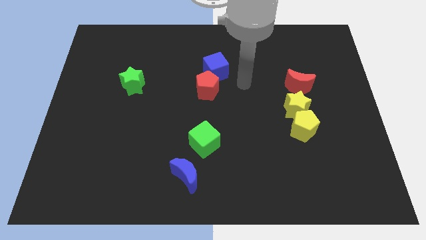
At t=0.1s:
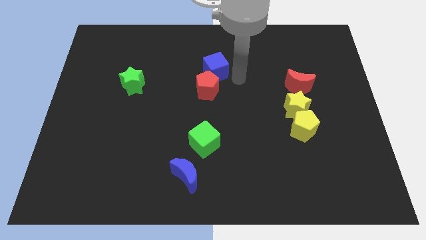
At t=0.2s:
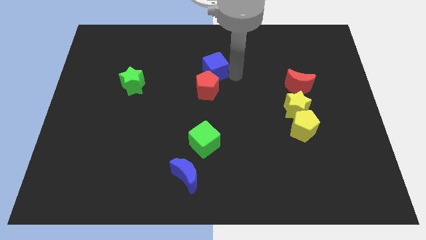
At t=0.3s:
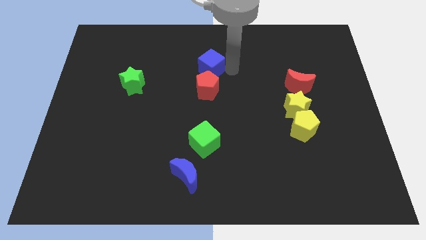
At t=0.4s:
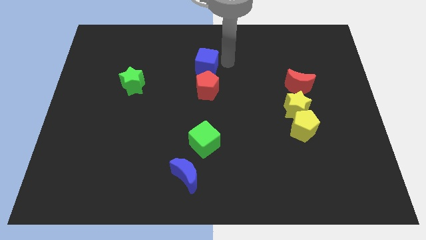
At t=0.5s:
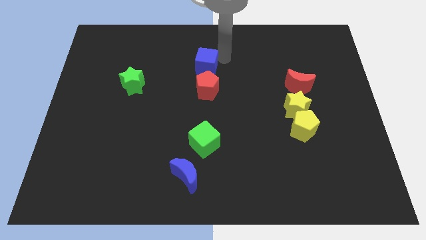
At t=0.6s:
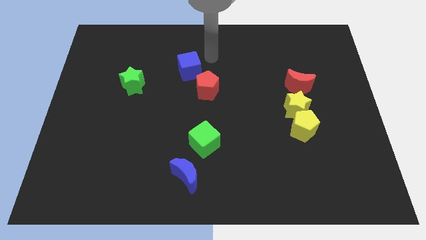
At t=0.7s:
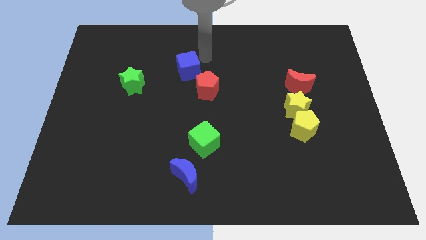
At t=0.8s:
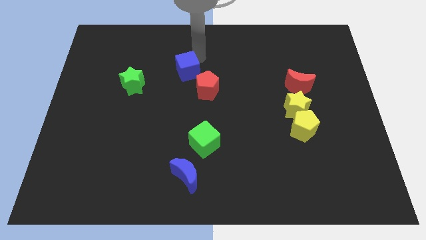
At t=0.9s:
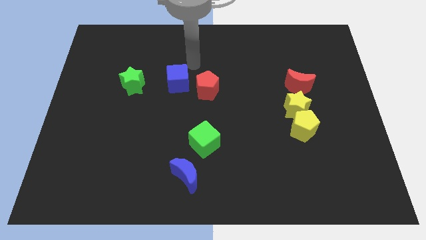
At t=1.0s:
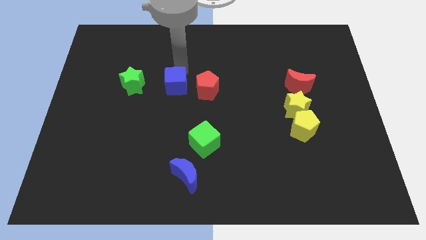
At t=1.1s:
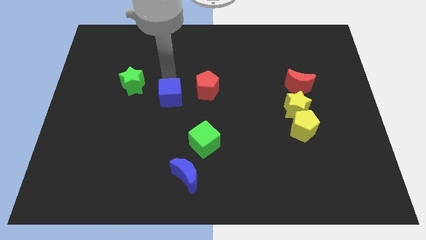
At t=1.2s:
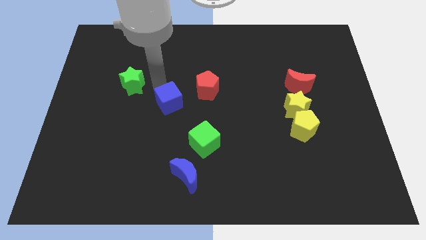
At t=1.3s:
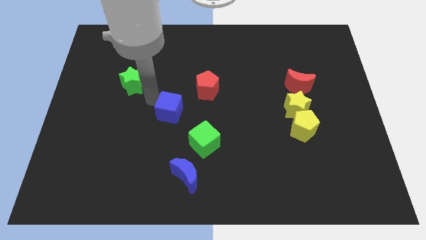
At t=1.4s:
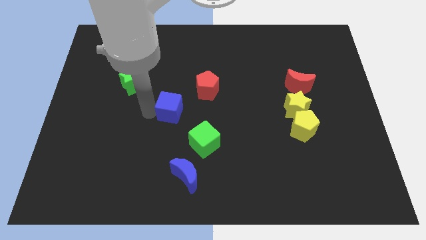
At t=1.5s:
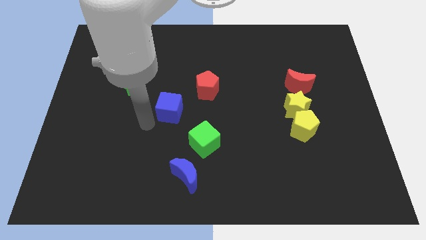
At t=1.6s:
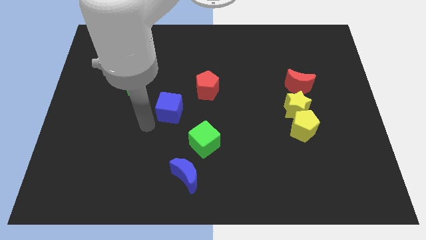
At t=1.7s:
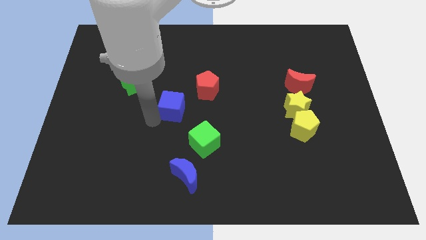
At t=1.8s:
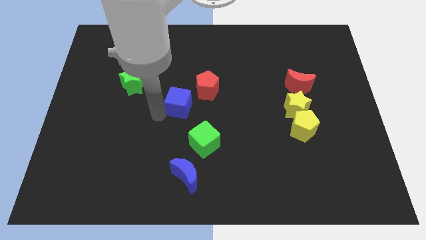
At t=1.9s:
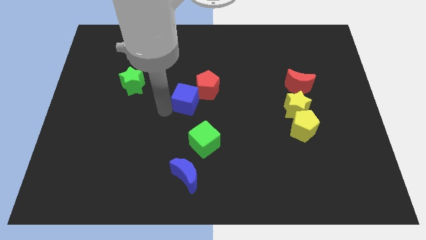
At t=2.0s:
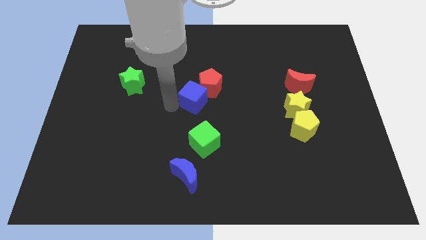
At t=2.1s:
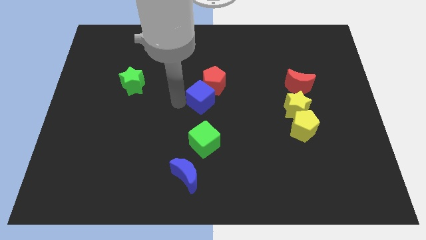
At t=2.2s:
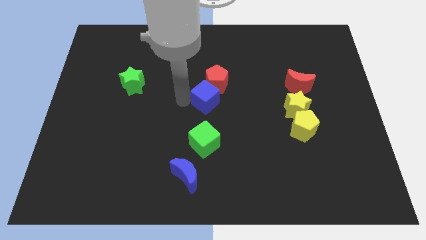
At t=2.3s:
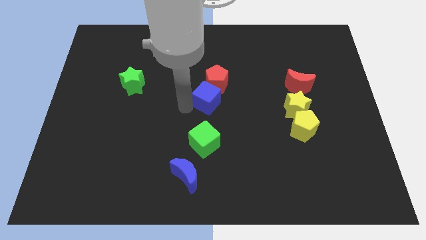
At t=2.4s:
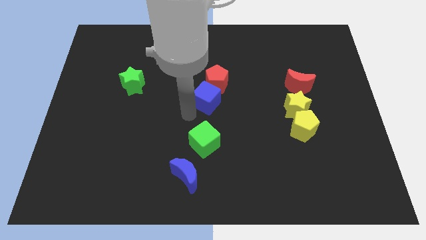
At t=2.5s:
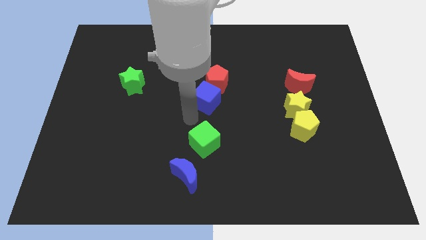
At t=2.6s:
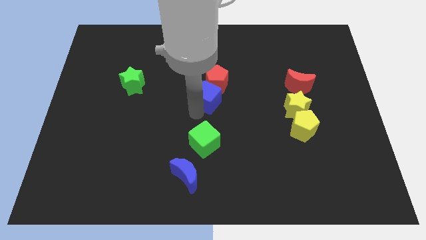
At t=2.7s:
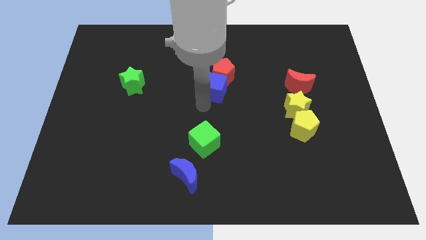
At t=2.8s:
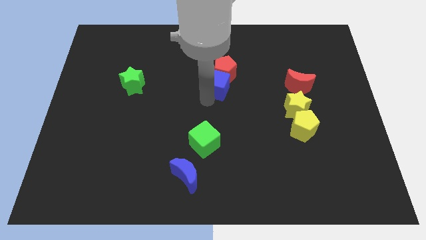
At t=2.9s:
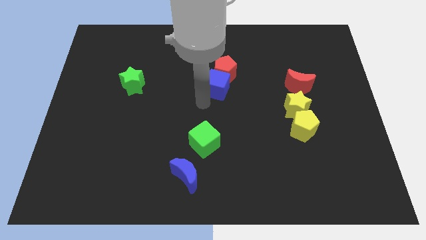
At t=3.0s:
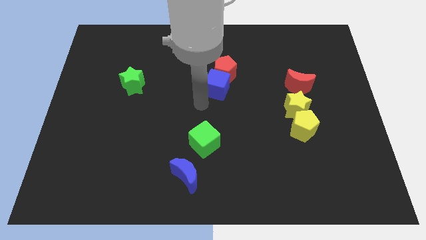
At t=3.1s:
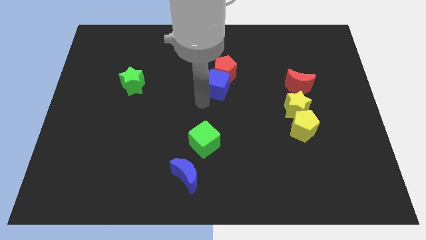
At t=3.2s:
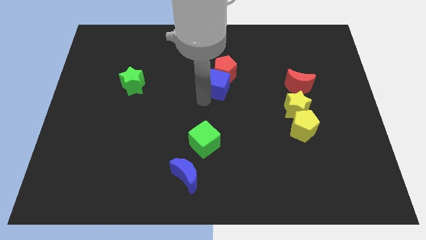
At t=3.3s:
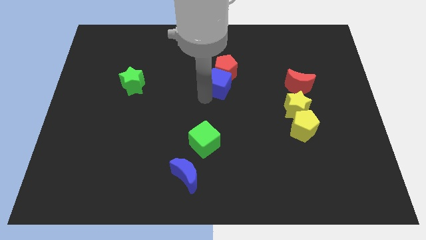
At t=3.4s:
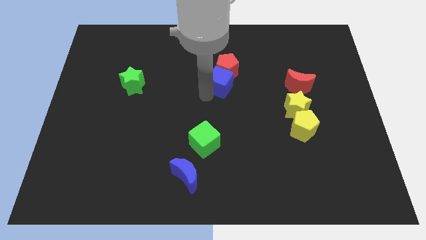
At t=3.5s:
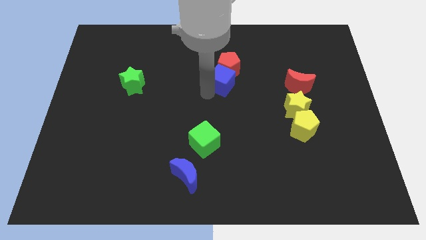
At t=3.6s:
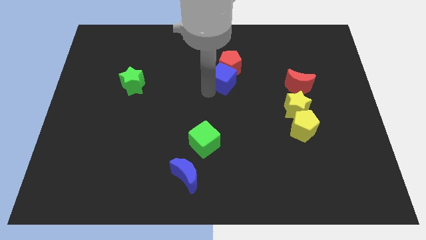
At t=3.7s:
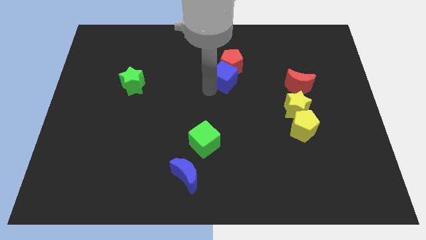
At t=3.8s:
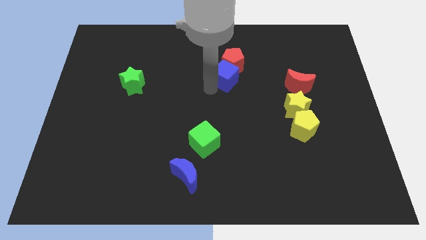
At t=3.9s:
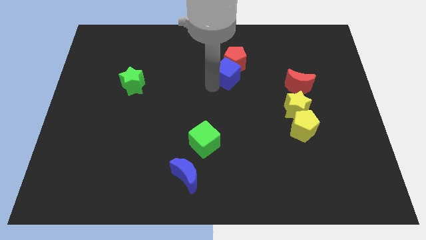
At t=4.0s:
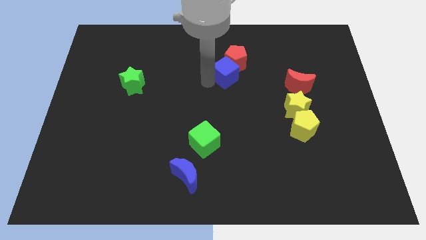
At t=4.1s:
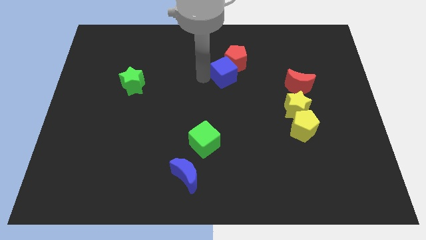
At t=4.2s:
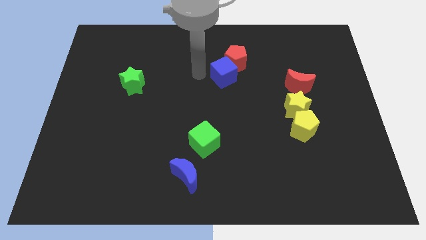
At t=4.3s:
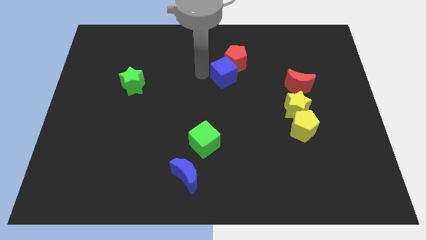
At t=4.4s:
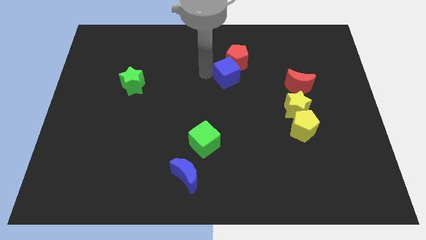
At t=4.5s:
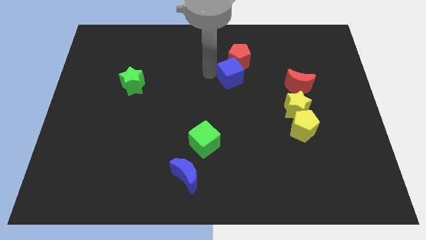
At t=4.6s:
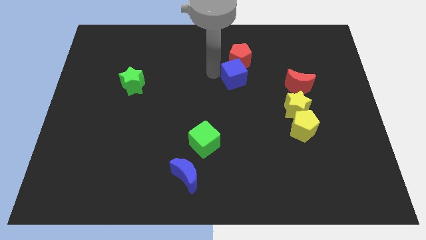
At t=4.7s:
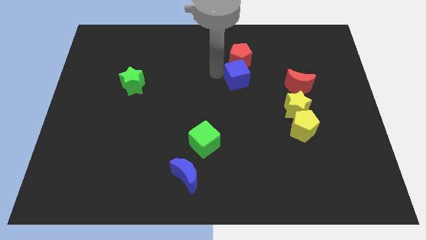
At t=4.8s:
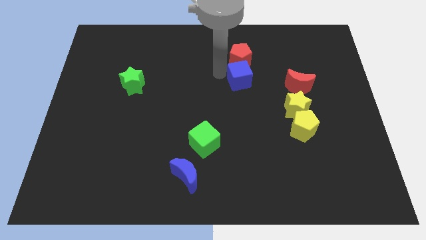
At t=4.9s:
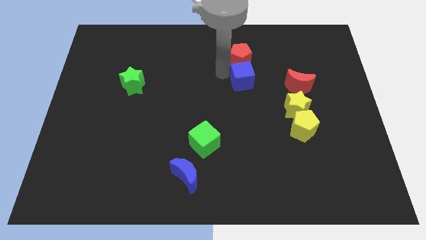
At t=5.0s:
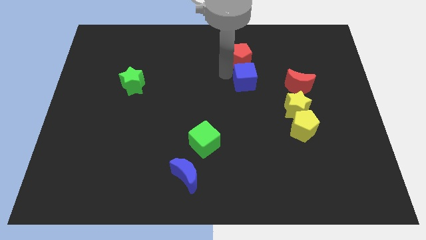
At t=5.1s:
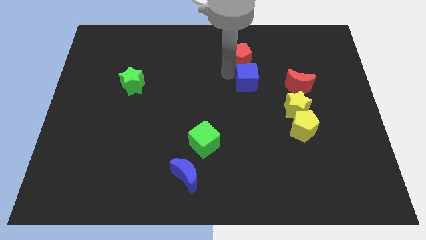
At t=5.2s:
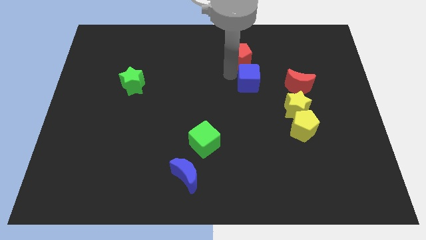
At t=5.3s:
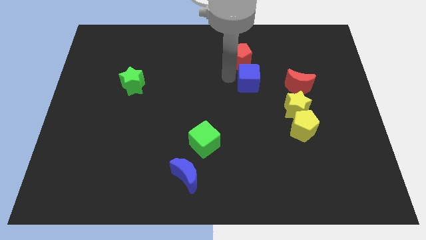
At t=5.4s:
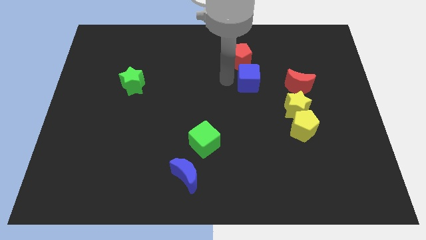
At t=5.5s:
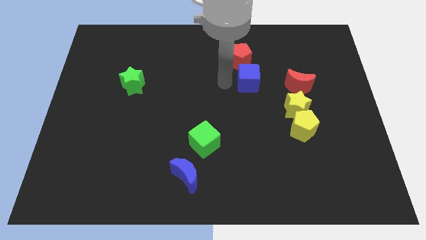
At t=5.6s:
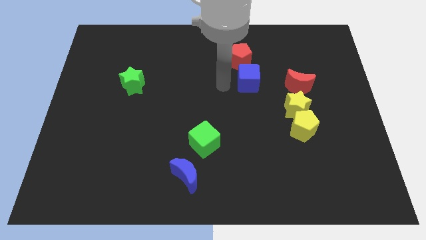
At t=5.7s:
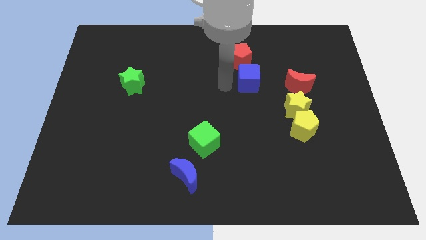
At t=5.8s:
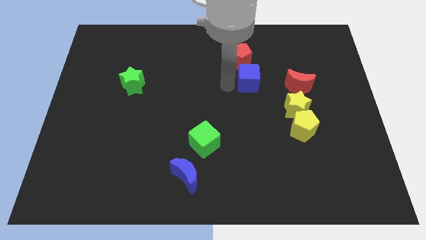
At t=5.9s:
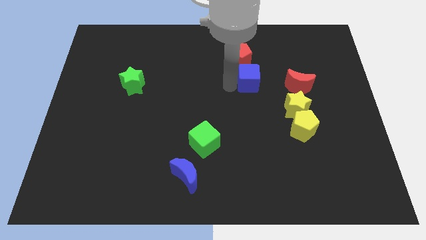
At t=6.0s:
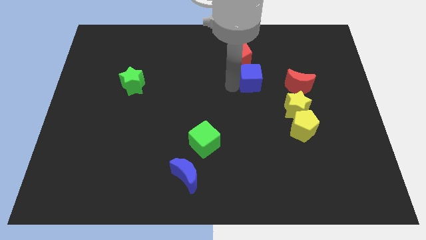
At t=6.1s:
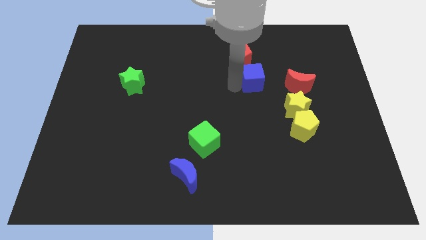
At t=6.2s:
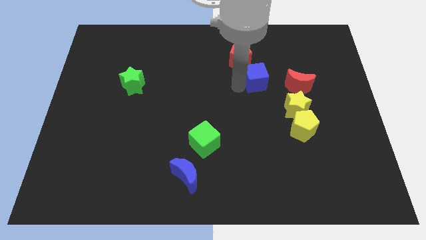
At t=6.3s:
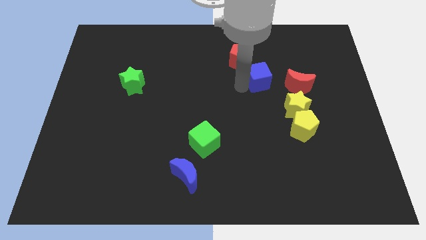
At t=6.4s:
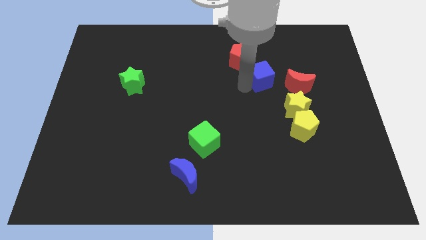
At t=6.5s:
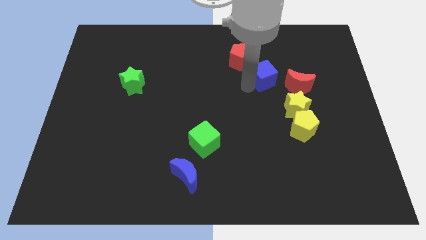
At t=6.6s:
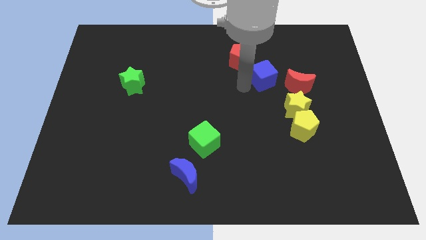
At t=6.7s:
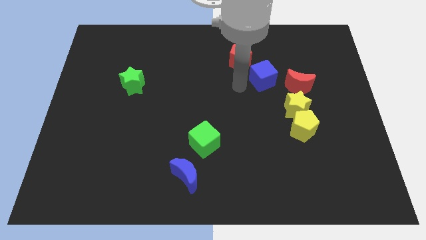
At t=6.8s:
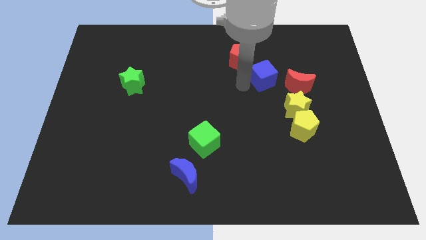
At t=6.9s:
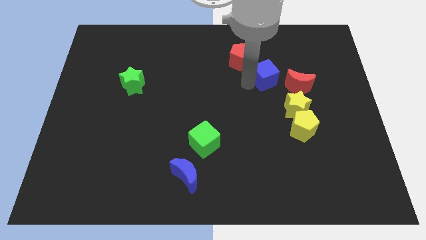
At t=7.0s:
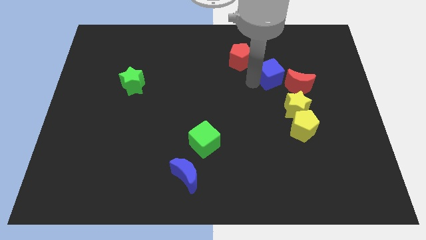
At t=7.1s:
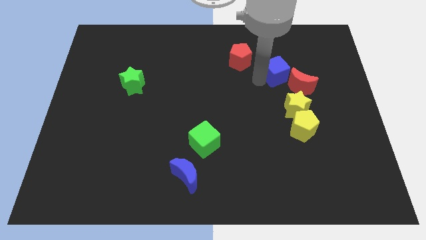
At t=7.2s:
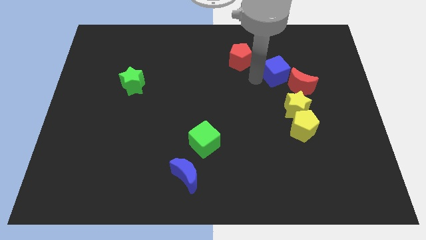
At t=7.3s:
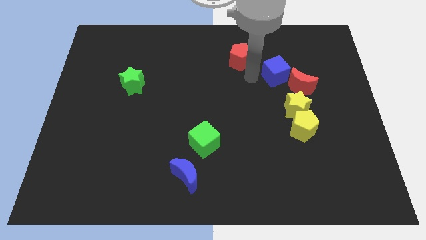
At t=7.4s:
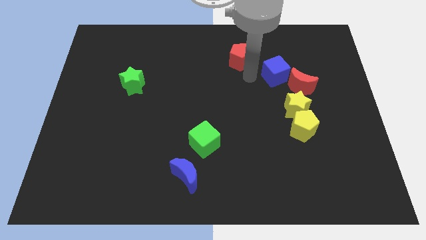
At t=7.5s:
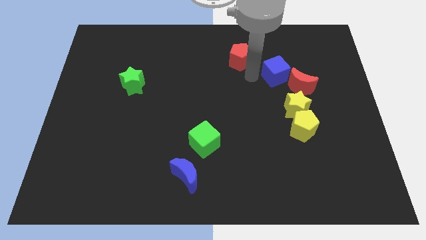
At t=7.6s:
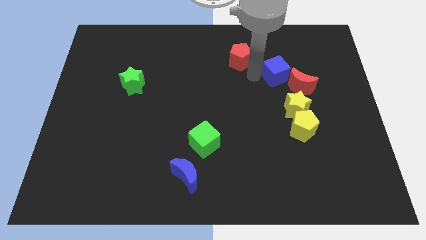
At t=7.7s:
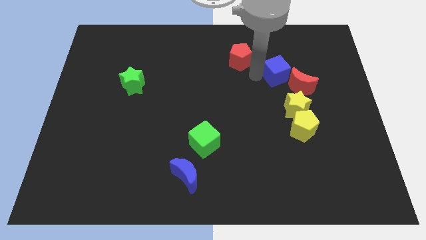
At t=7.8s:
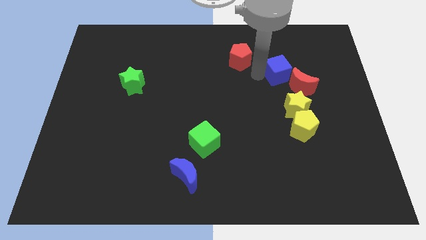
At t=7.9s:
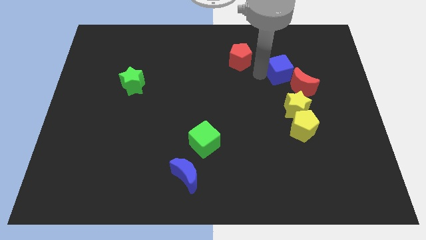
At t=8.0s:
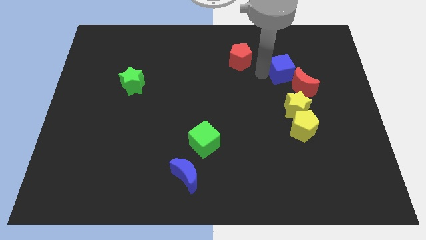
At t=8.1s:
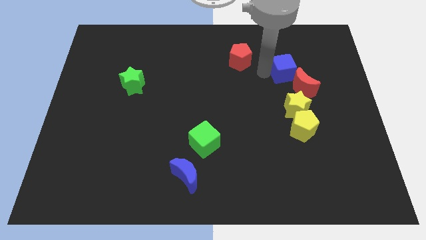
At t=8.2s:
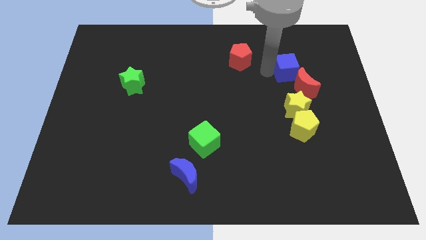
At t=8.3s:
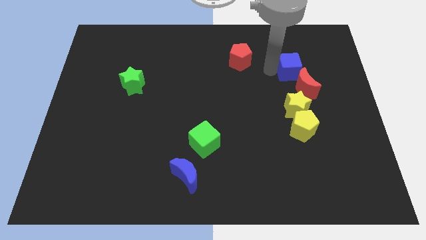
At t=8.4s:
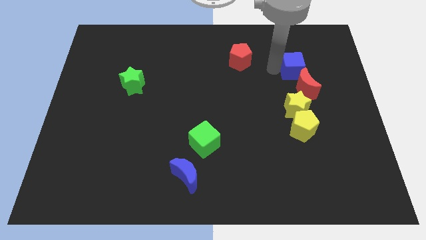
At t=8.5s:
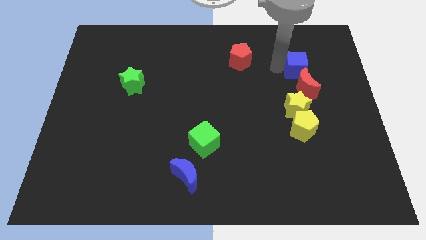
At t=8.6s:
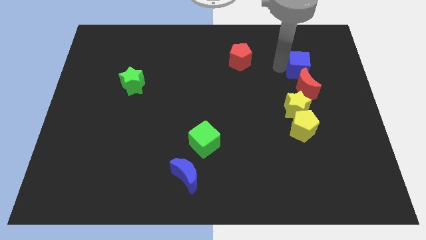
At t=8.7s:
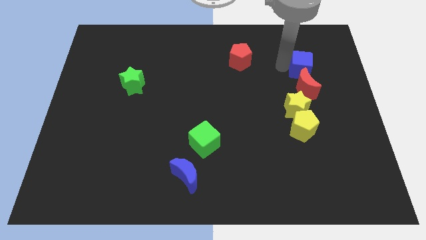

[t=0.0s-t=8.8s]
slide the blue cube to the top right of the red moon
